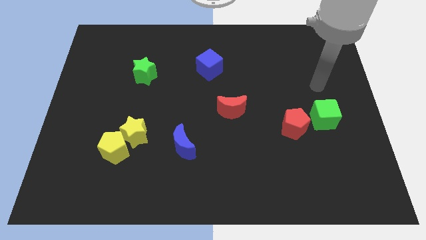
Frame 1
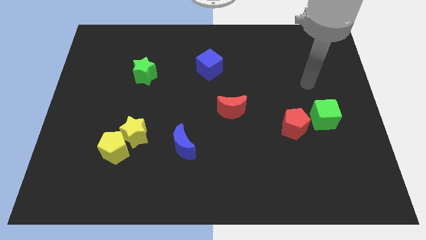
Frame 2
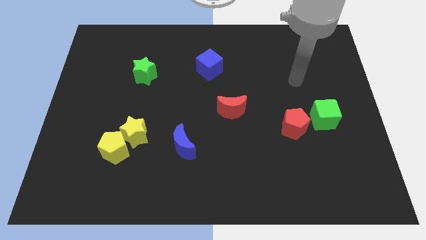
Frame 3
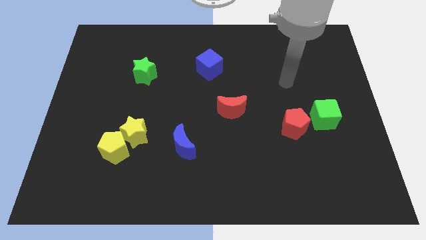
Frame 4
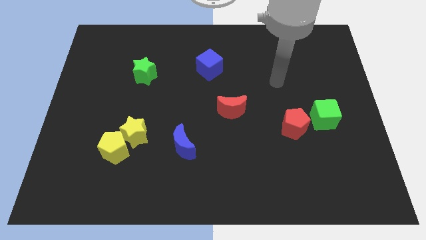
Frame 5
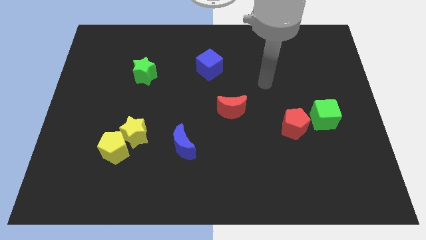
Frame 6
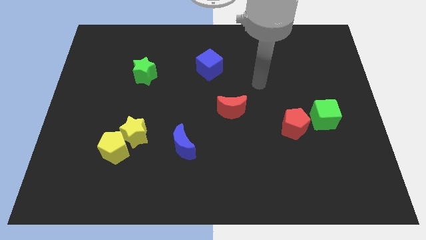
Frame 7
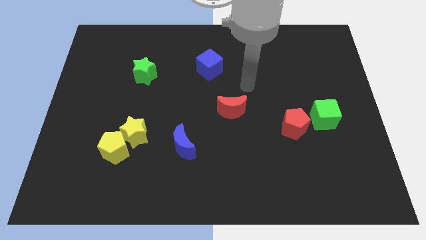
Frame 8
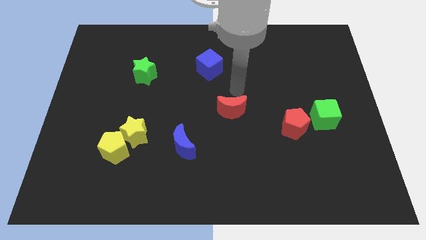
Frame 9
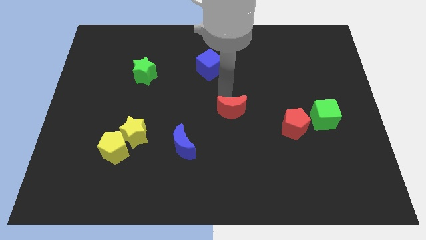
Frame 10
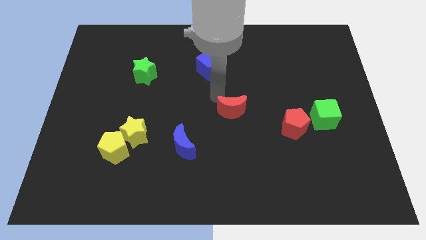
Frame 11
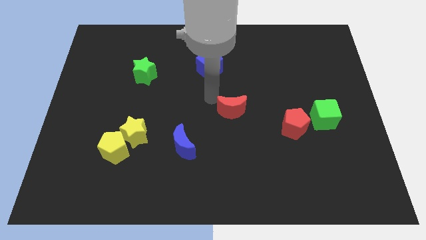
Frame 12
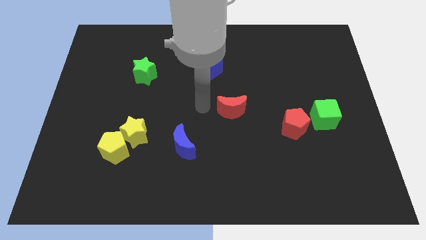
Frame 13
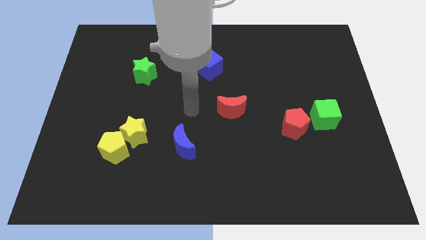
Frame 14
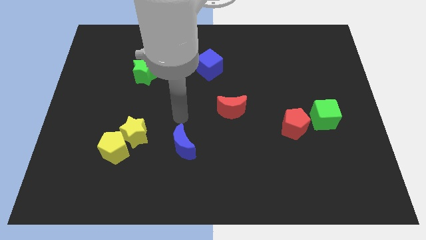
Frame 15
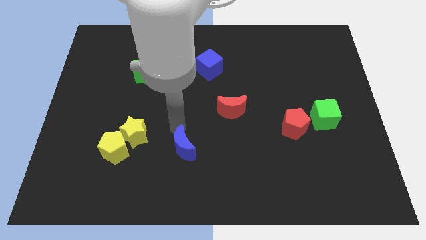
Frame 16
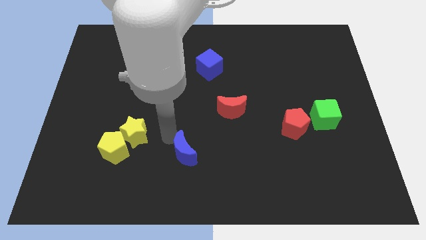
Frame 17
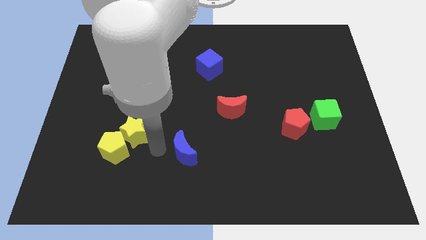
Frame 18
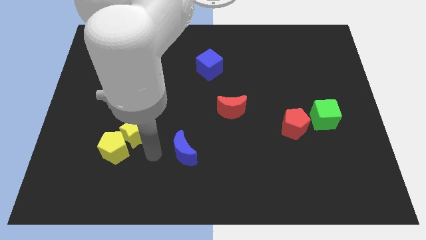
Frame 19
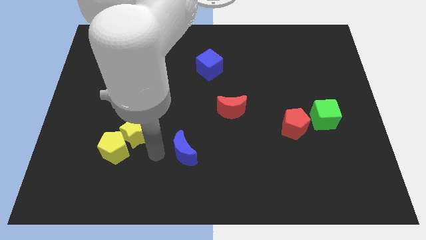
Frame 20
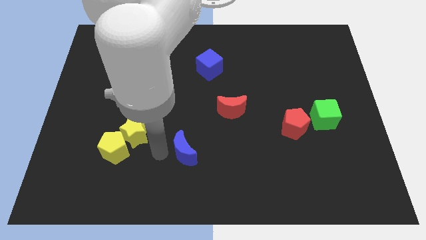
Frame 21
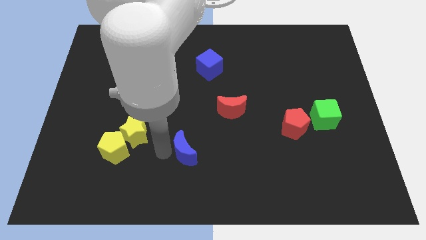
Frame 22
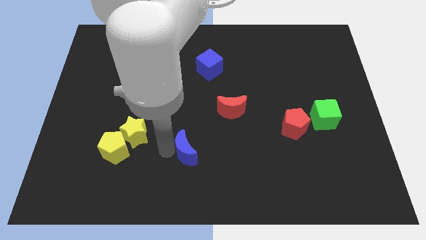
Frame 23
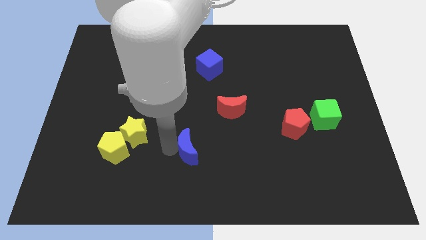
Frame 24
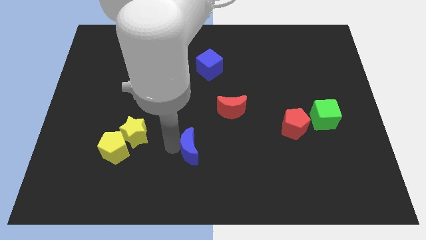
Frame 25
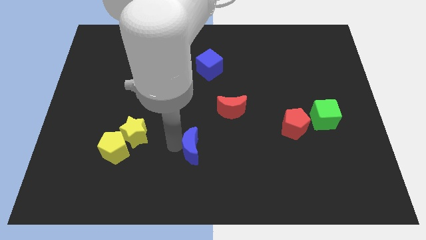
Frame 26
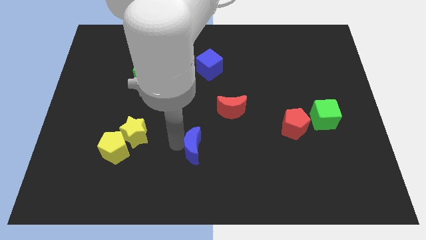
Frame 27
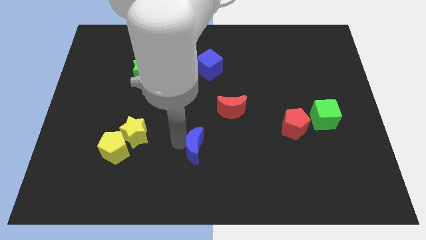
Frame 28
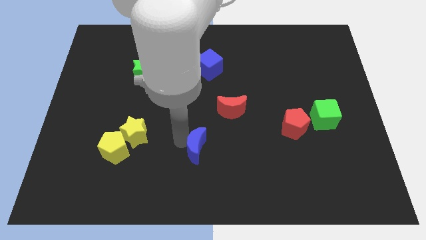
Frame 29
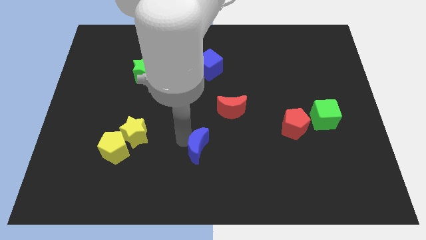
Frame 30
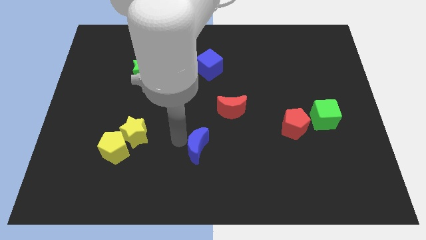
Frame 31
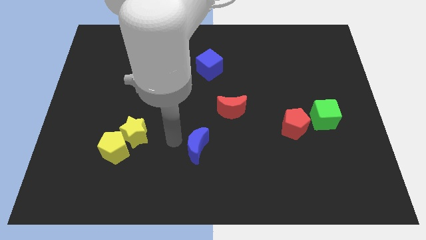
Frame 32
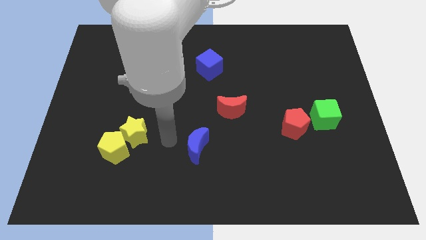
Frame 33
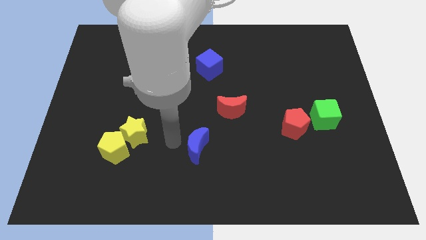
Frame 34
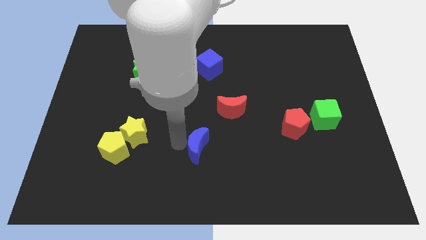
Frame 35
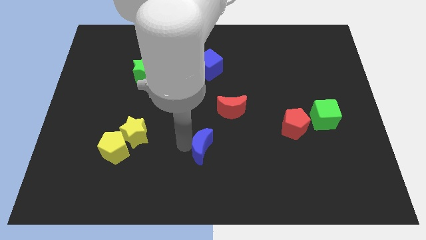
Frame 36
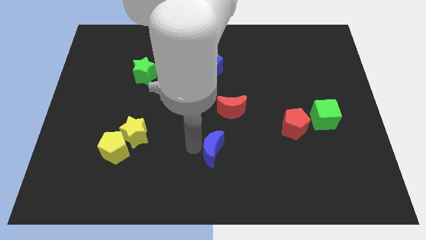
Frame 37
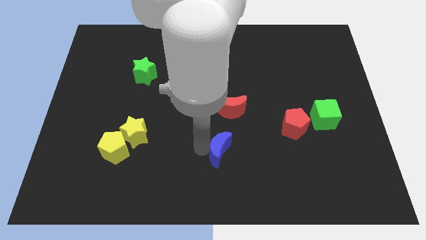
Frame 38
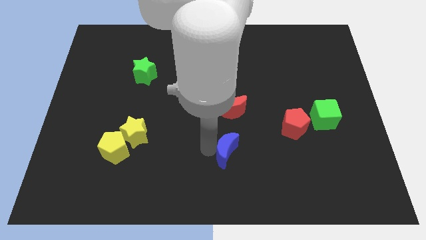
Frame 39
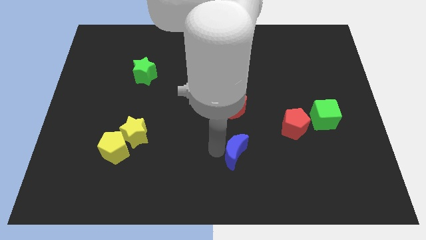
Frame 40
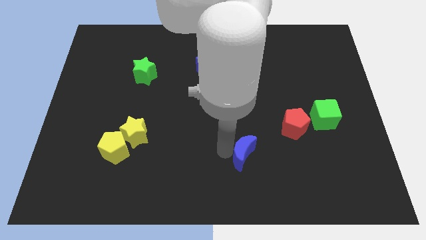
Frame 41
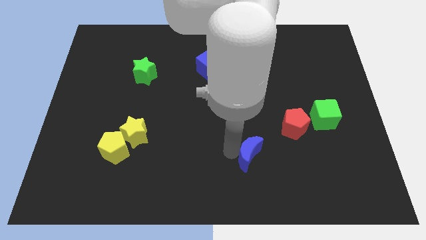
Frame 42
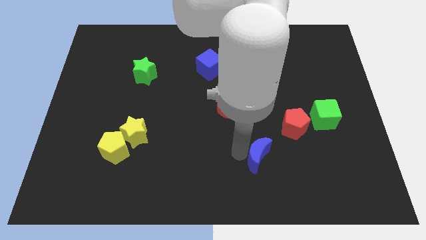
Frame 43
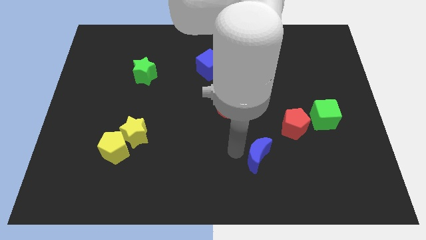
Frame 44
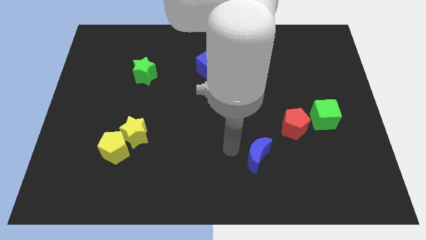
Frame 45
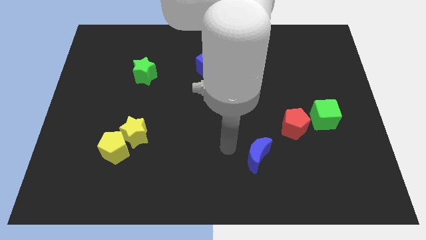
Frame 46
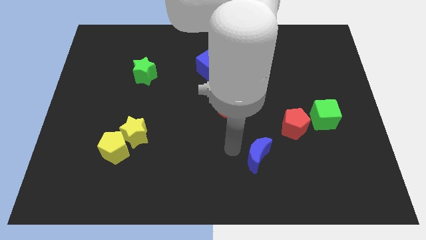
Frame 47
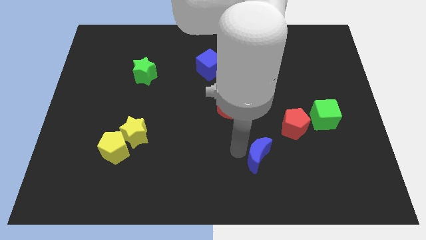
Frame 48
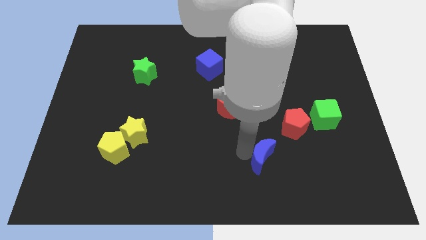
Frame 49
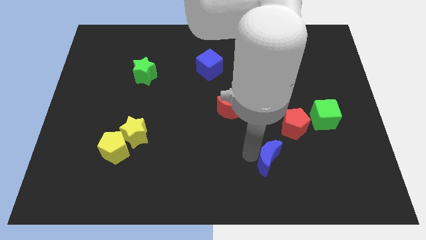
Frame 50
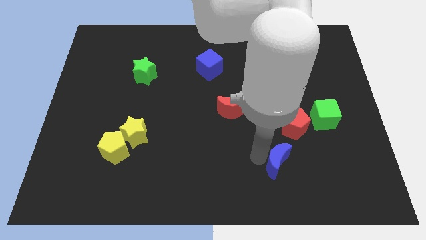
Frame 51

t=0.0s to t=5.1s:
push the blue moon to the bottom of the red pentagon

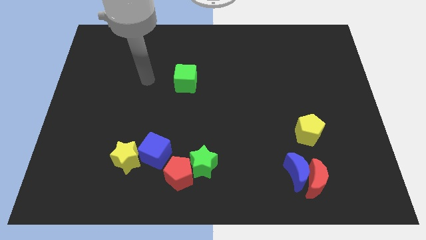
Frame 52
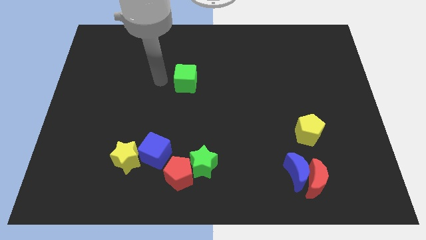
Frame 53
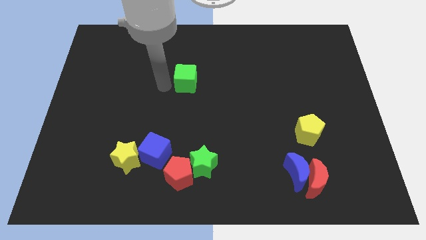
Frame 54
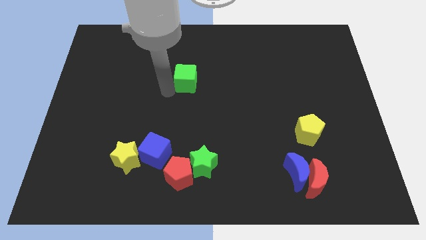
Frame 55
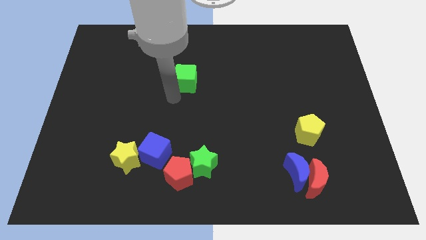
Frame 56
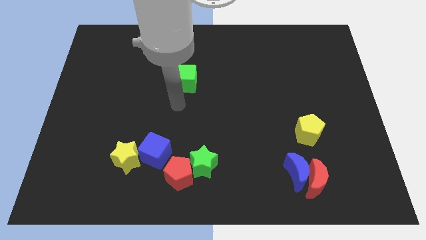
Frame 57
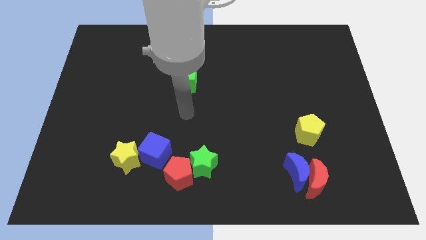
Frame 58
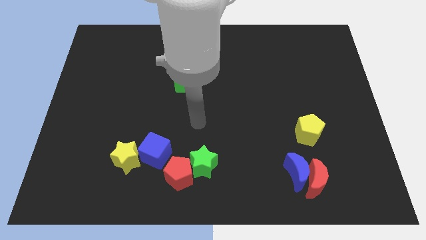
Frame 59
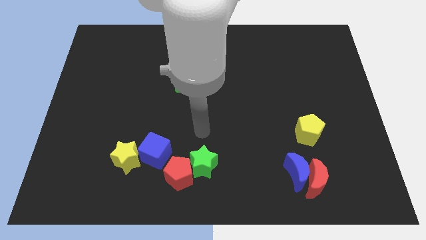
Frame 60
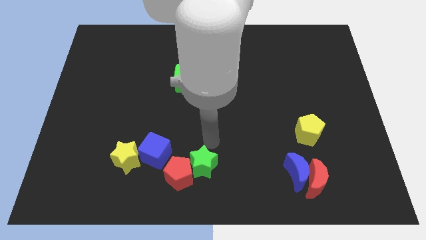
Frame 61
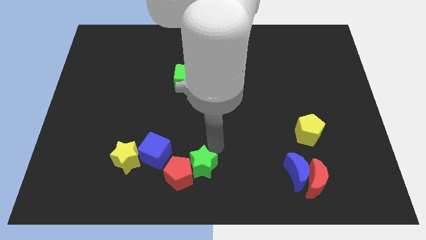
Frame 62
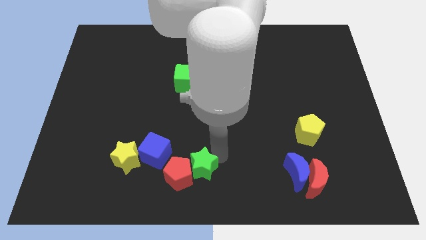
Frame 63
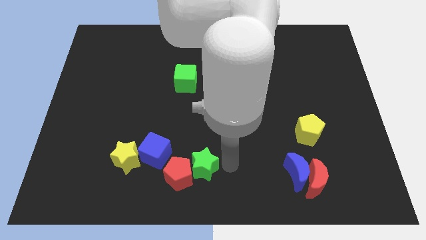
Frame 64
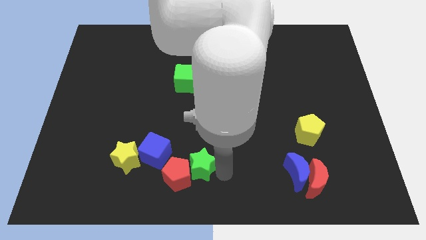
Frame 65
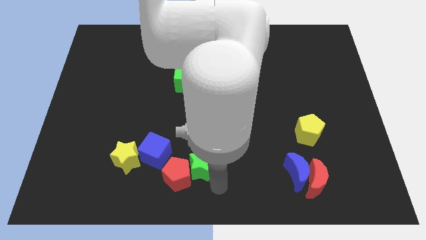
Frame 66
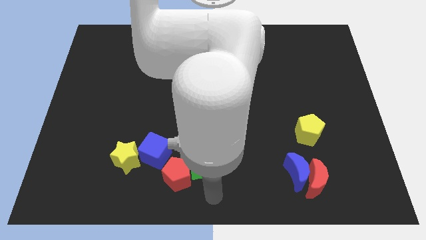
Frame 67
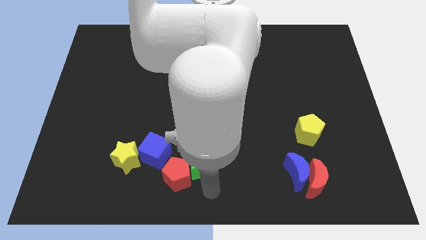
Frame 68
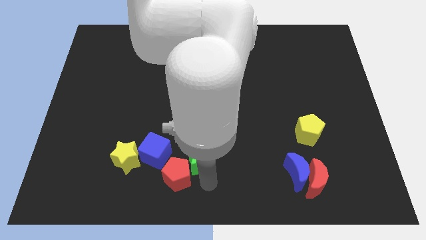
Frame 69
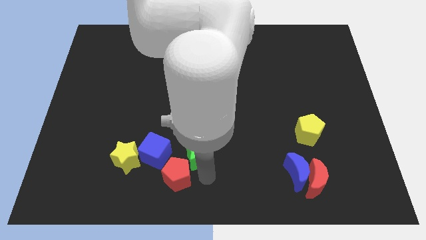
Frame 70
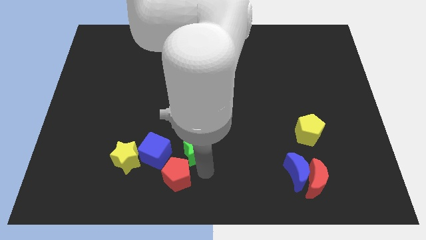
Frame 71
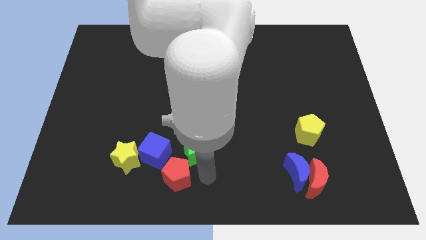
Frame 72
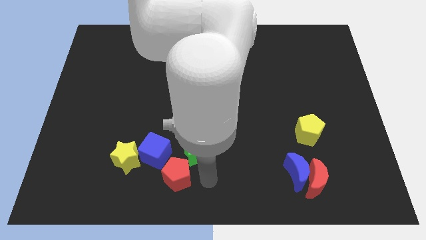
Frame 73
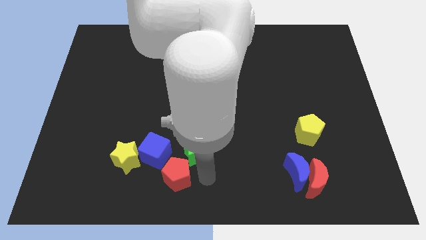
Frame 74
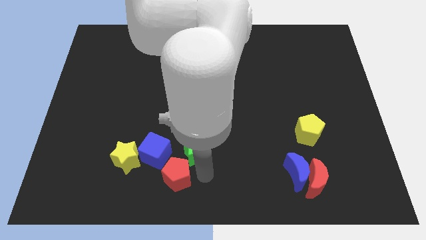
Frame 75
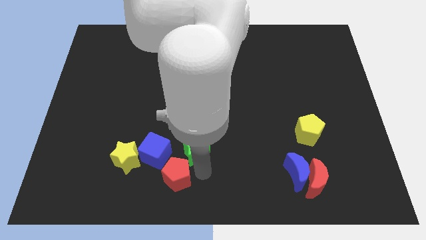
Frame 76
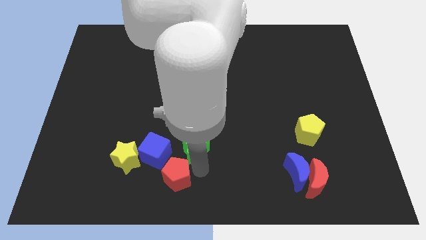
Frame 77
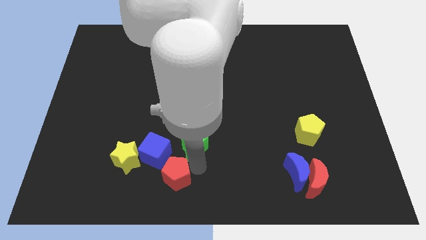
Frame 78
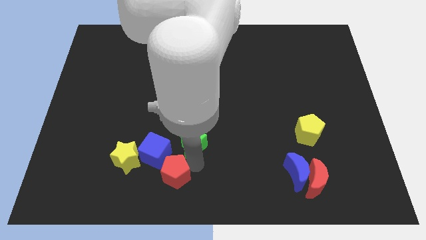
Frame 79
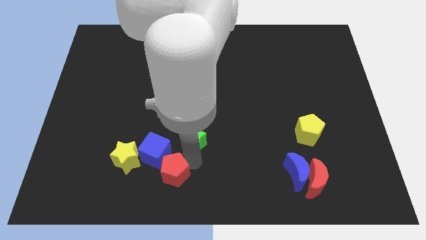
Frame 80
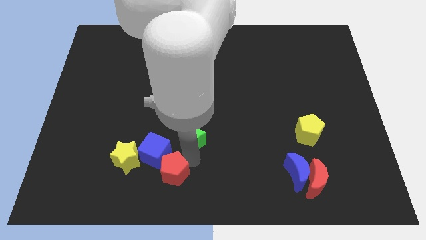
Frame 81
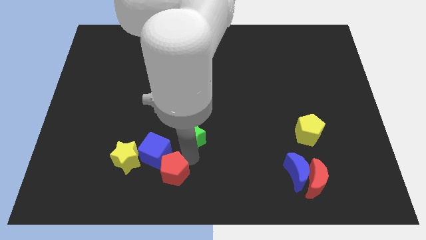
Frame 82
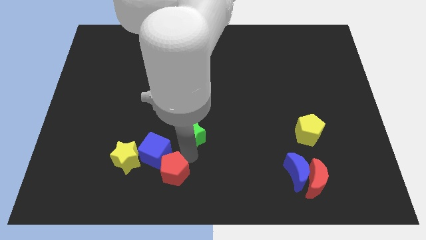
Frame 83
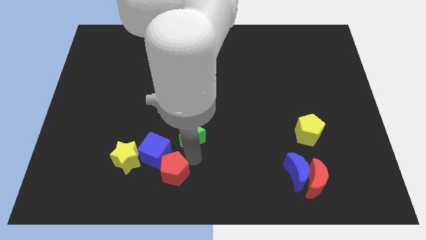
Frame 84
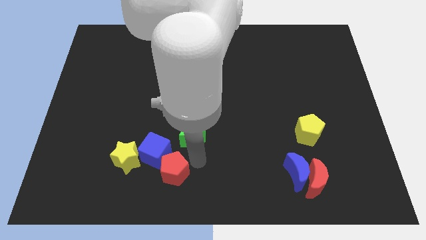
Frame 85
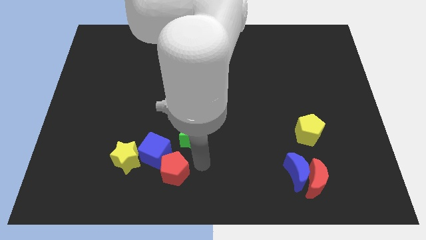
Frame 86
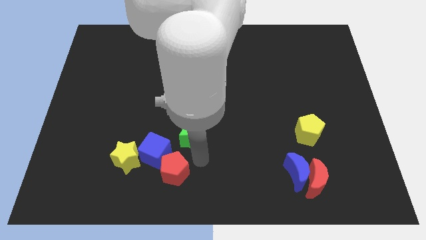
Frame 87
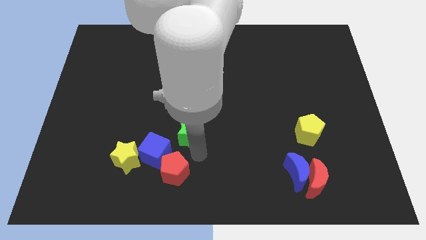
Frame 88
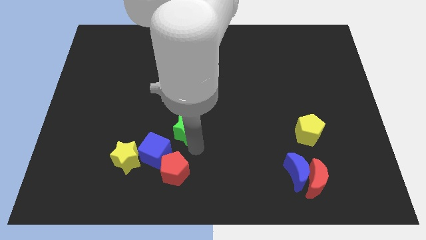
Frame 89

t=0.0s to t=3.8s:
move the green star to the bottom of the green cube
